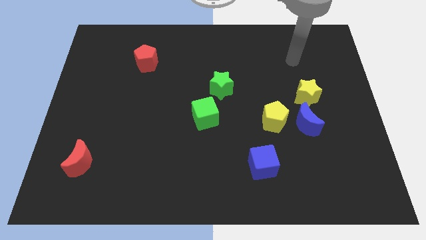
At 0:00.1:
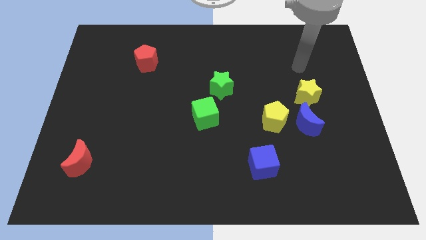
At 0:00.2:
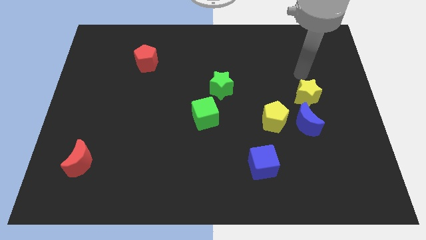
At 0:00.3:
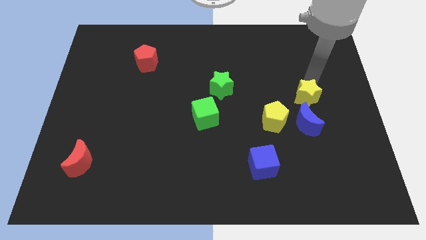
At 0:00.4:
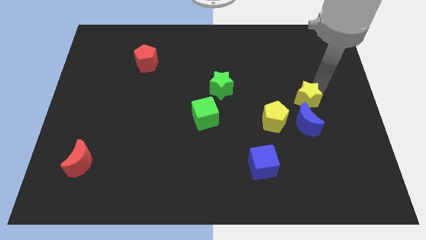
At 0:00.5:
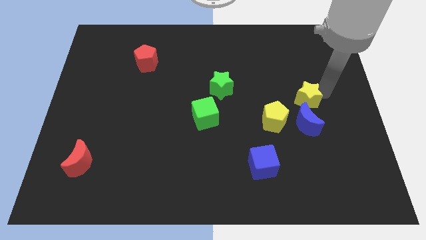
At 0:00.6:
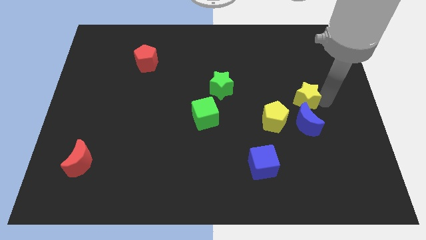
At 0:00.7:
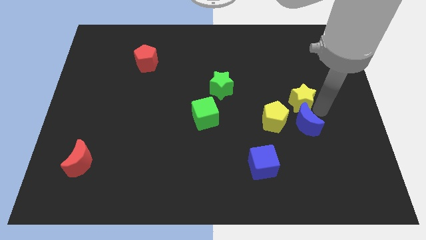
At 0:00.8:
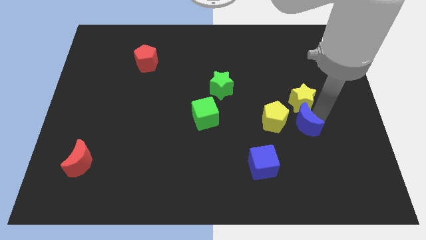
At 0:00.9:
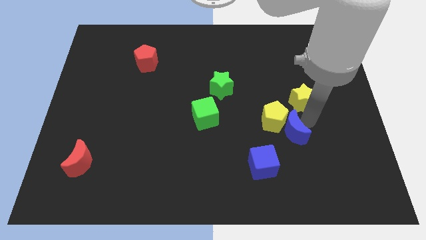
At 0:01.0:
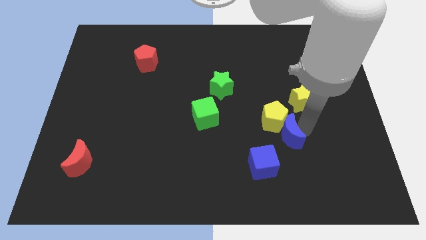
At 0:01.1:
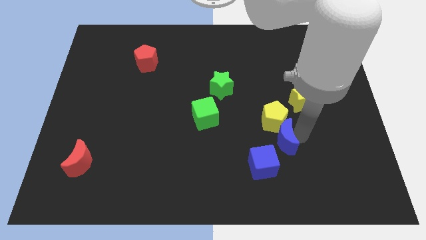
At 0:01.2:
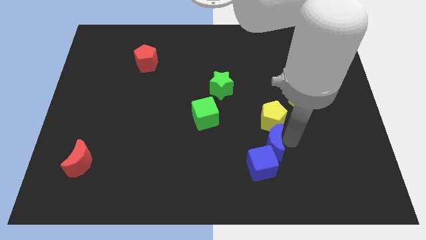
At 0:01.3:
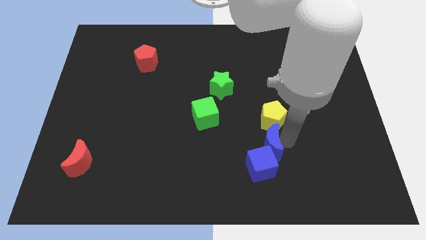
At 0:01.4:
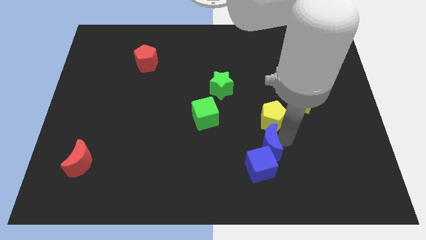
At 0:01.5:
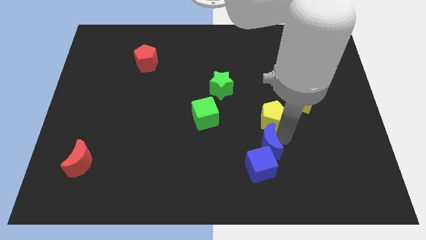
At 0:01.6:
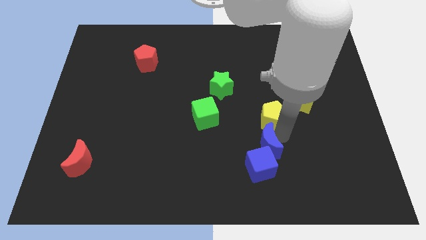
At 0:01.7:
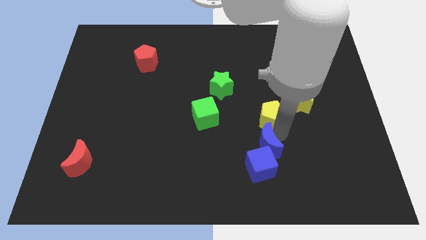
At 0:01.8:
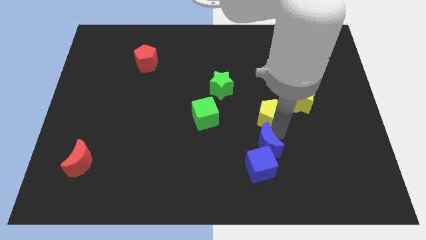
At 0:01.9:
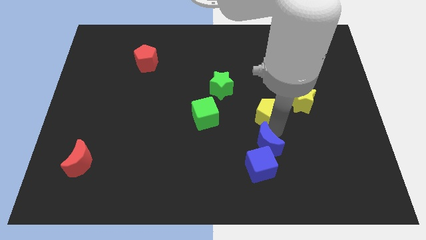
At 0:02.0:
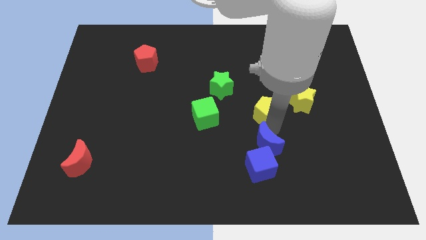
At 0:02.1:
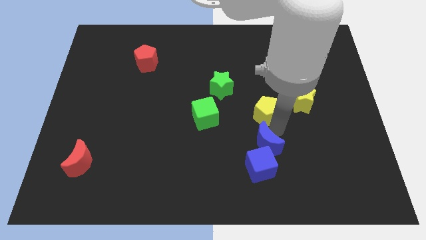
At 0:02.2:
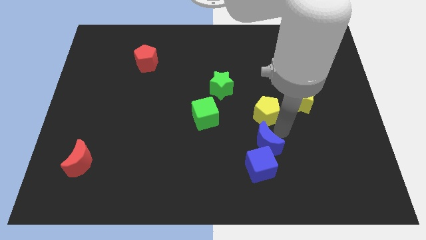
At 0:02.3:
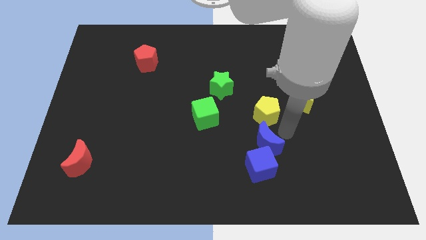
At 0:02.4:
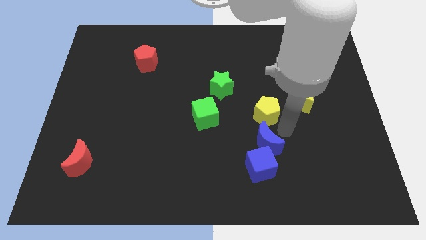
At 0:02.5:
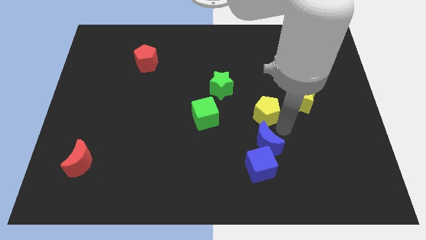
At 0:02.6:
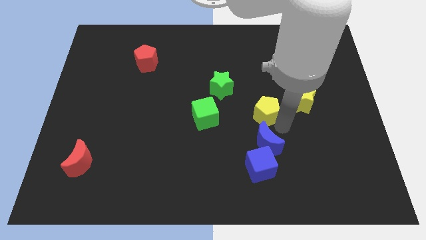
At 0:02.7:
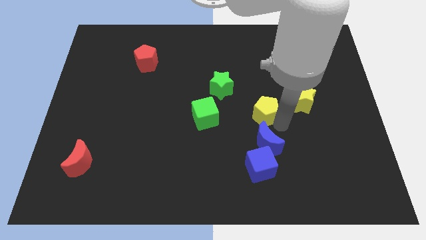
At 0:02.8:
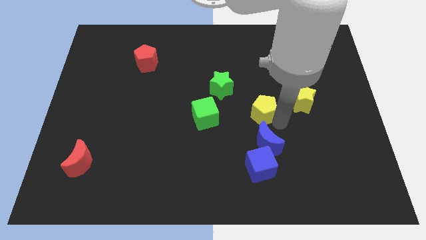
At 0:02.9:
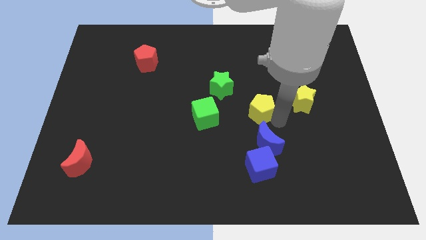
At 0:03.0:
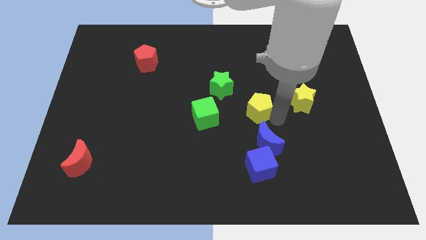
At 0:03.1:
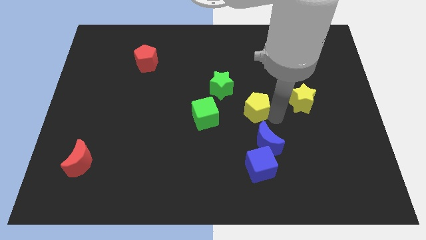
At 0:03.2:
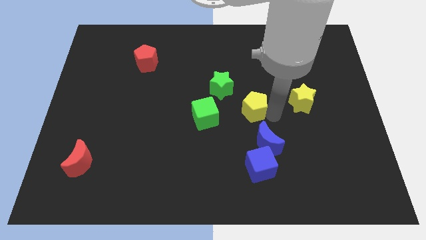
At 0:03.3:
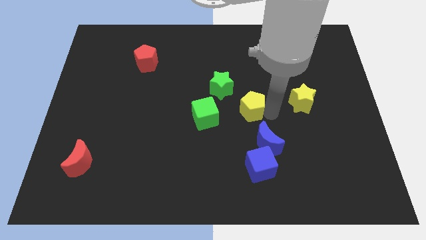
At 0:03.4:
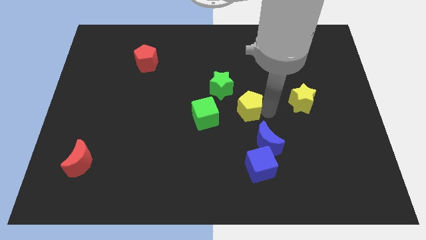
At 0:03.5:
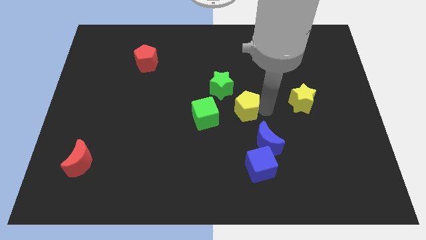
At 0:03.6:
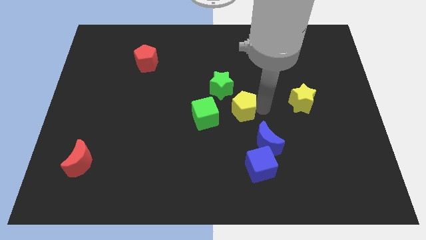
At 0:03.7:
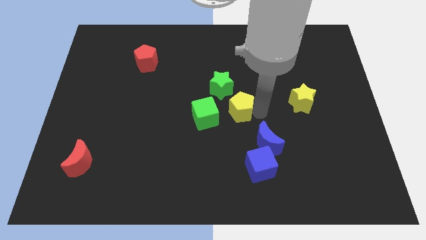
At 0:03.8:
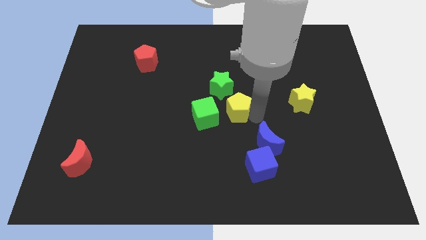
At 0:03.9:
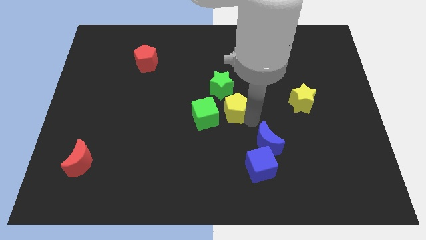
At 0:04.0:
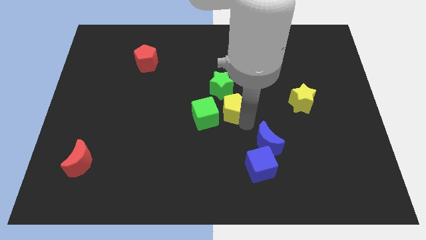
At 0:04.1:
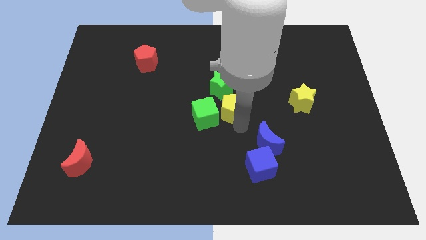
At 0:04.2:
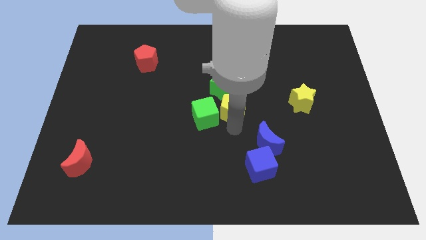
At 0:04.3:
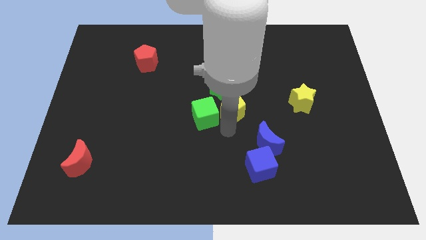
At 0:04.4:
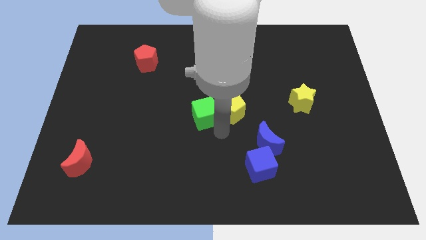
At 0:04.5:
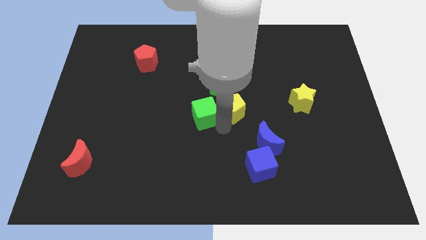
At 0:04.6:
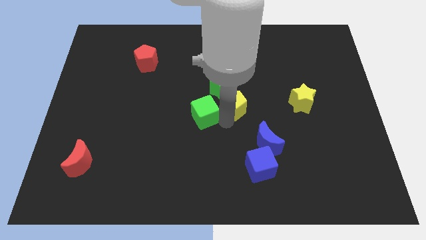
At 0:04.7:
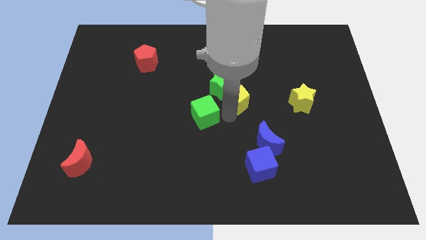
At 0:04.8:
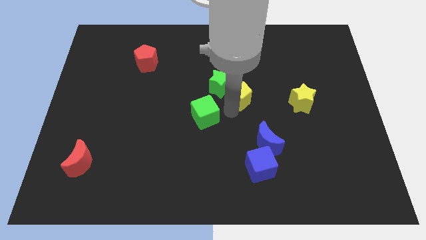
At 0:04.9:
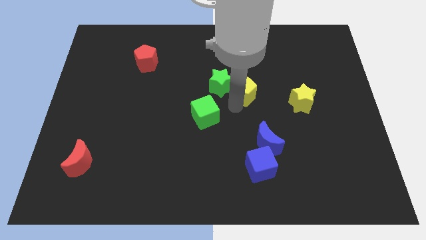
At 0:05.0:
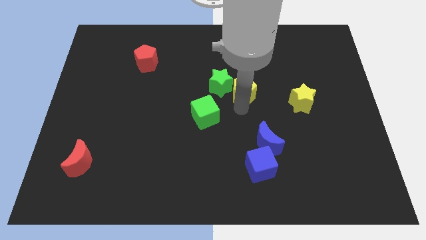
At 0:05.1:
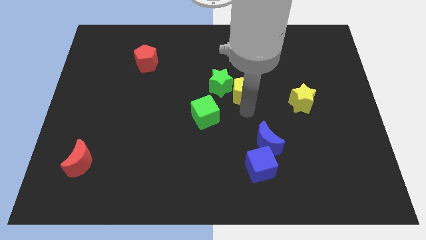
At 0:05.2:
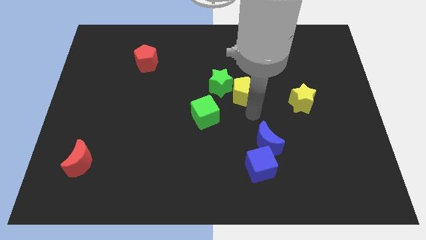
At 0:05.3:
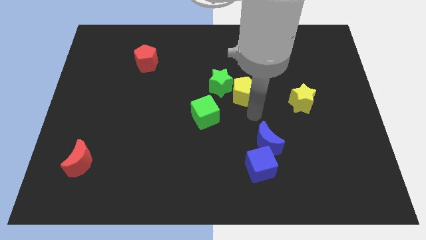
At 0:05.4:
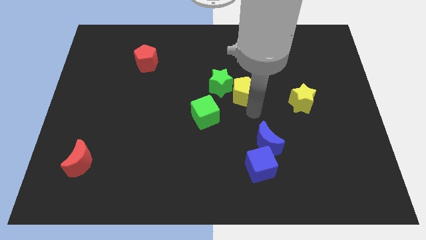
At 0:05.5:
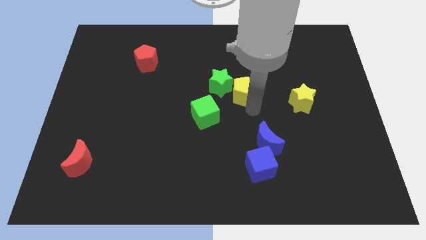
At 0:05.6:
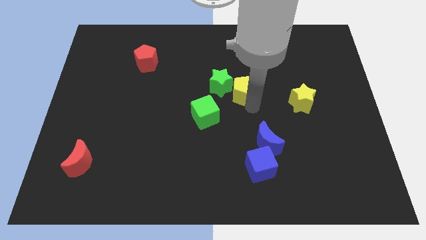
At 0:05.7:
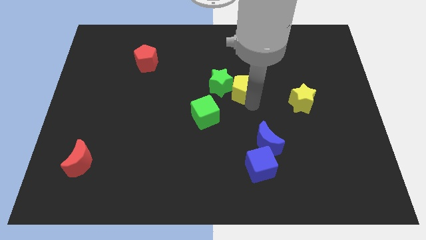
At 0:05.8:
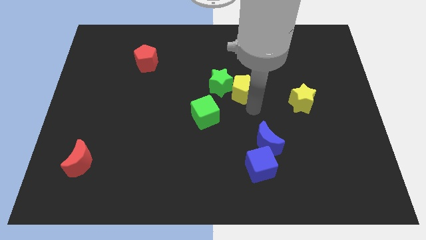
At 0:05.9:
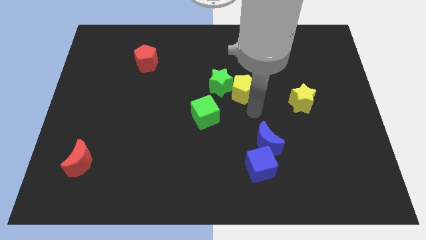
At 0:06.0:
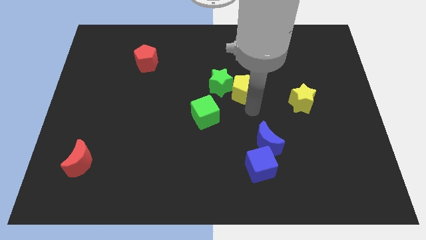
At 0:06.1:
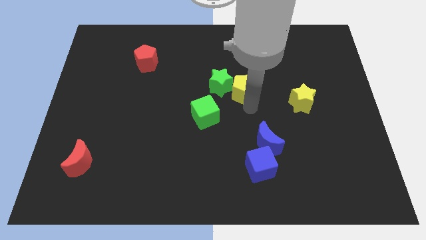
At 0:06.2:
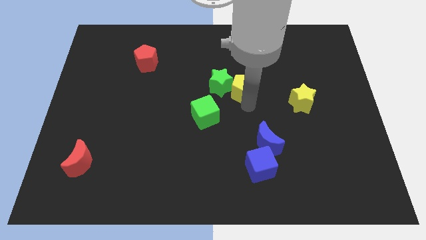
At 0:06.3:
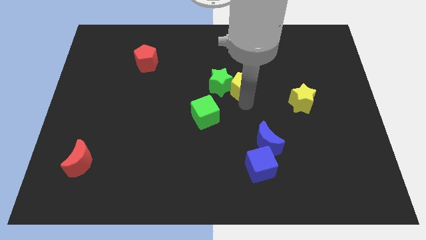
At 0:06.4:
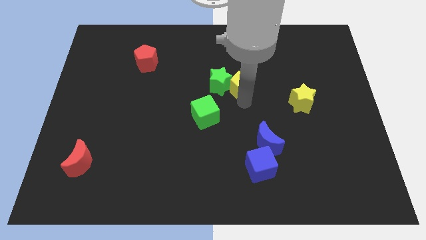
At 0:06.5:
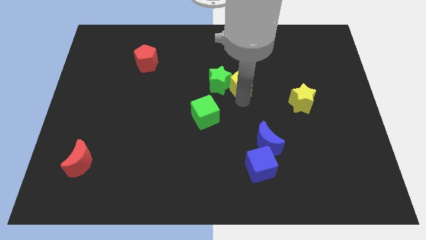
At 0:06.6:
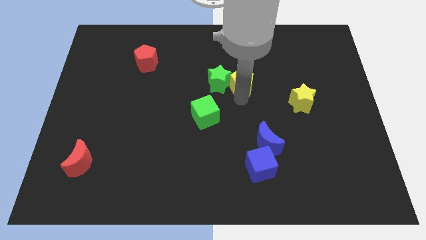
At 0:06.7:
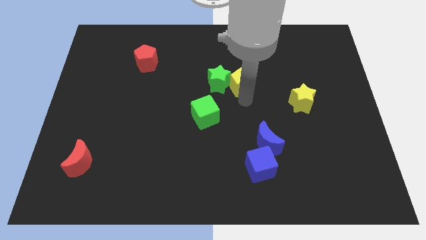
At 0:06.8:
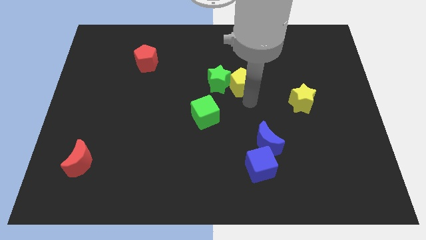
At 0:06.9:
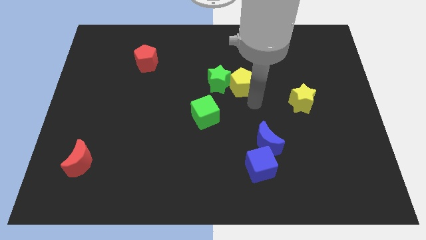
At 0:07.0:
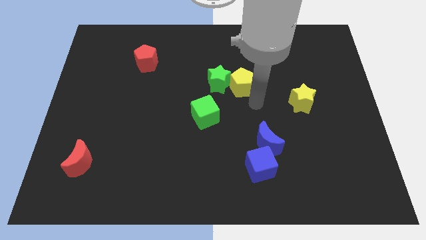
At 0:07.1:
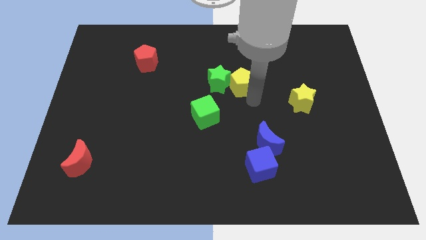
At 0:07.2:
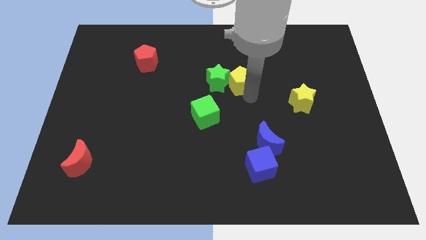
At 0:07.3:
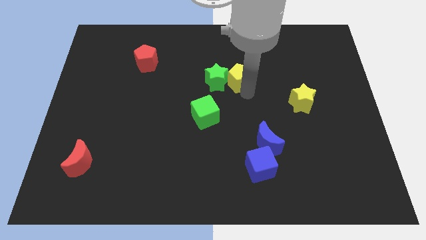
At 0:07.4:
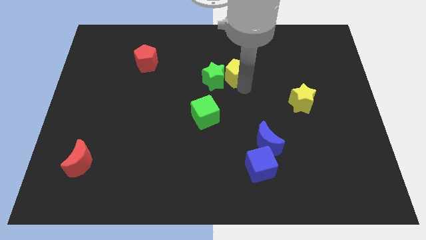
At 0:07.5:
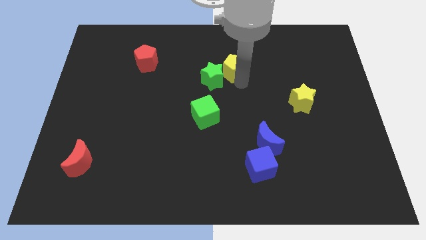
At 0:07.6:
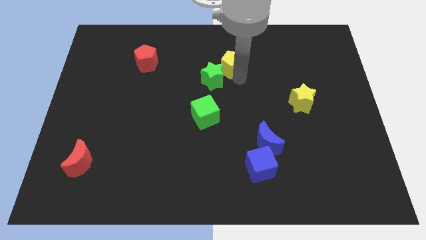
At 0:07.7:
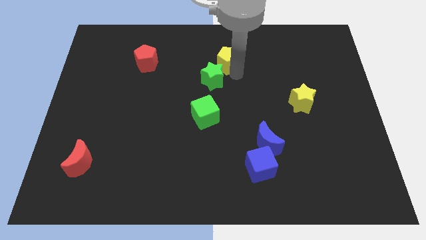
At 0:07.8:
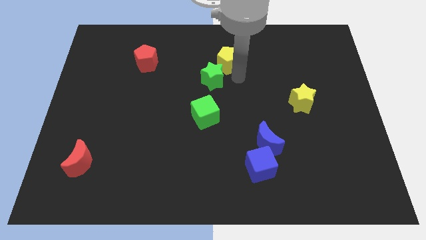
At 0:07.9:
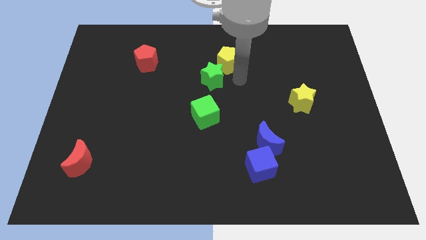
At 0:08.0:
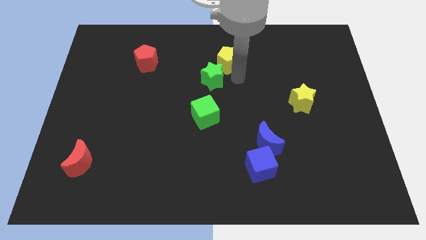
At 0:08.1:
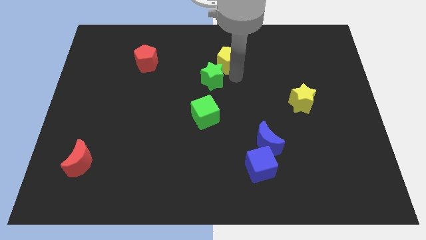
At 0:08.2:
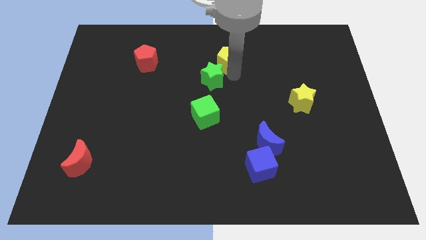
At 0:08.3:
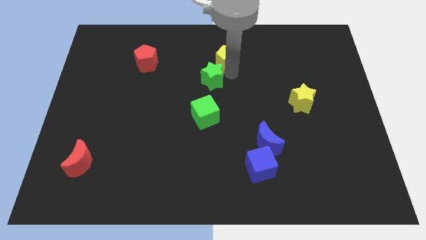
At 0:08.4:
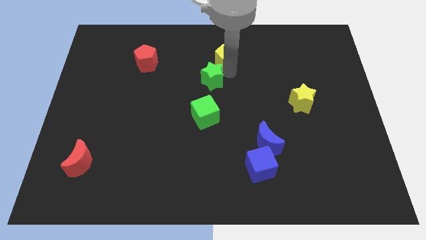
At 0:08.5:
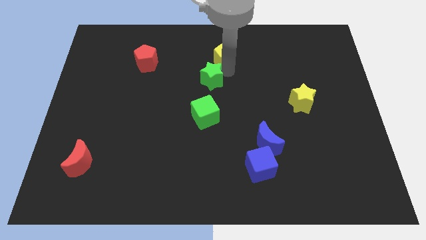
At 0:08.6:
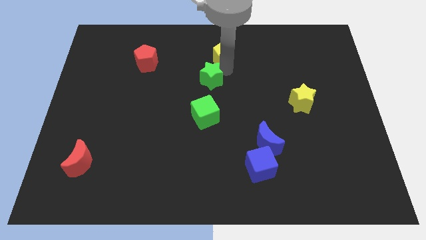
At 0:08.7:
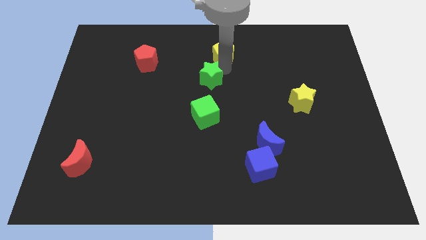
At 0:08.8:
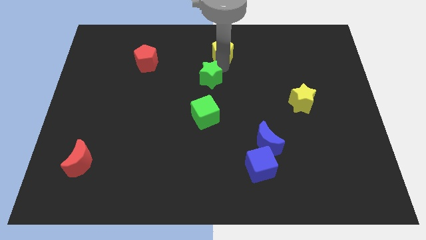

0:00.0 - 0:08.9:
move the yellow pentagon to the top side
